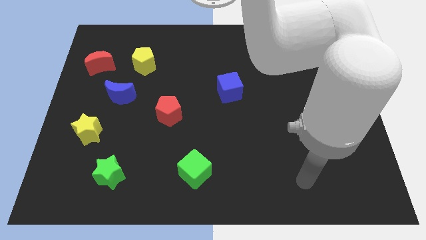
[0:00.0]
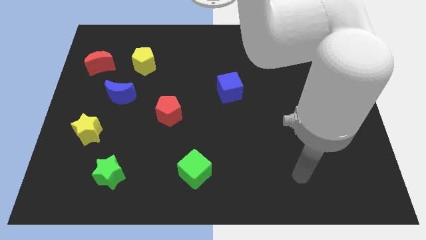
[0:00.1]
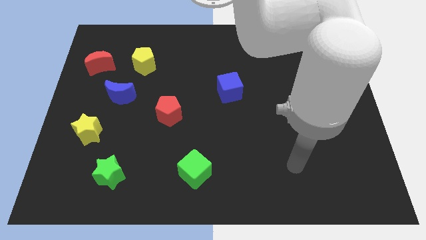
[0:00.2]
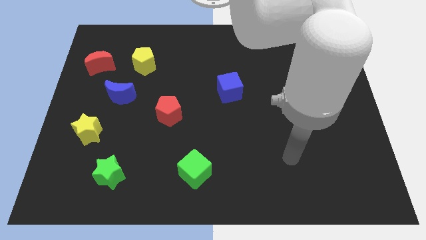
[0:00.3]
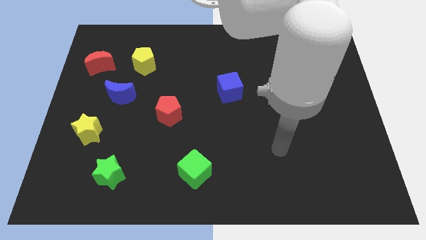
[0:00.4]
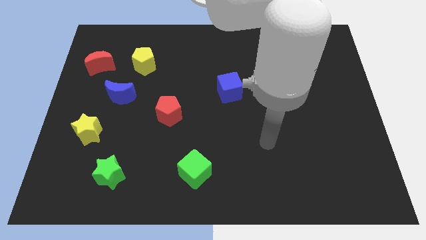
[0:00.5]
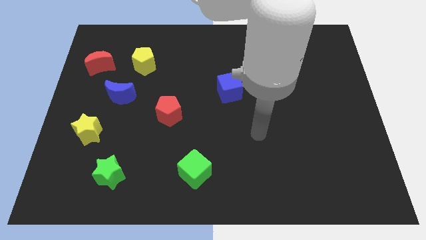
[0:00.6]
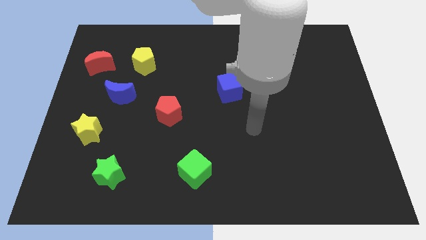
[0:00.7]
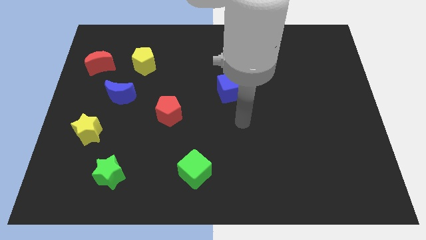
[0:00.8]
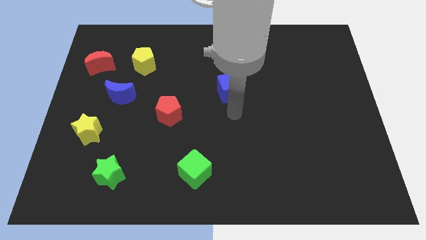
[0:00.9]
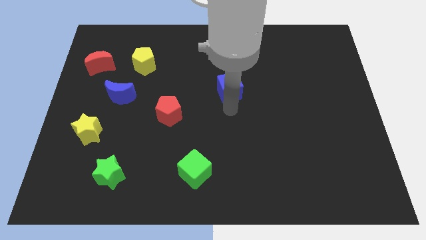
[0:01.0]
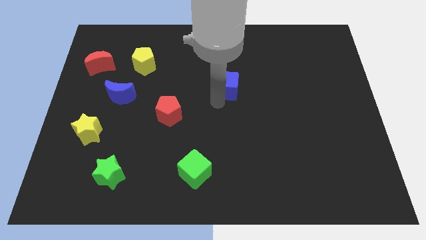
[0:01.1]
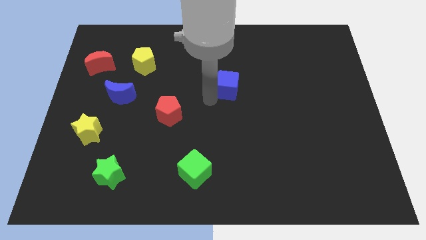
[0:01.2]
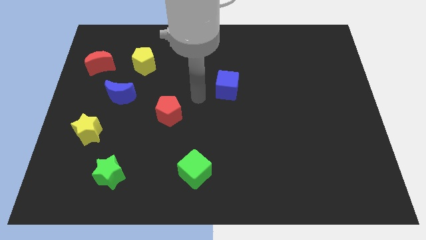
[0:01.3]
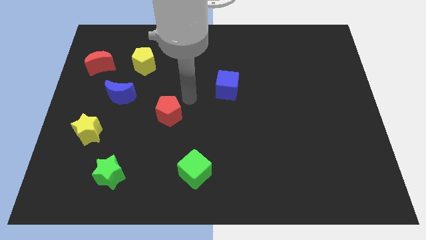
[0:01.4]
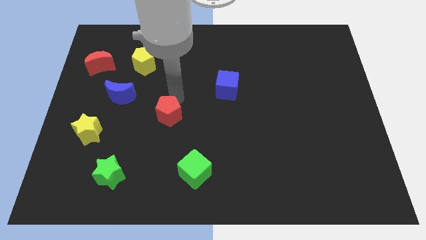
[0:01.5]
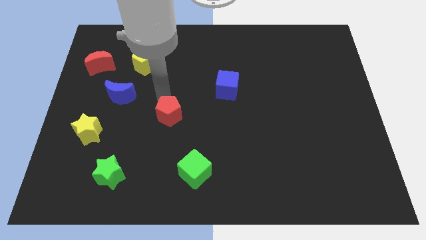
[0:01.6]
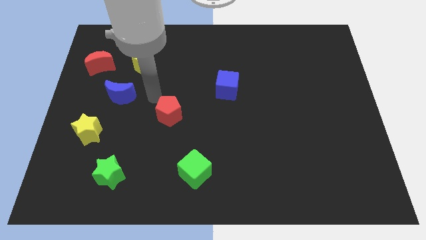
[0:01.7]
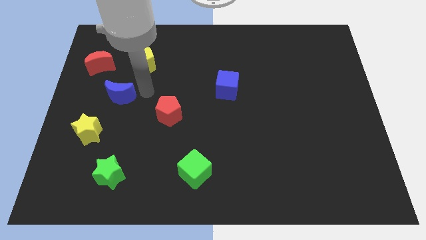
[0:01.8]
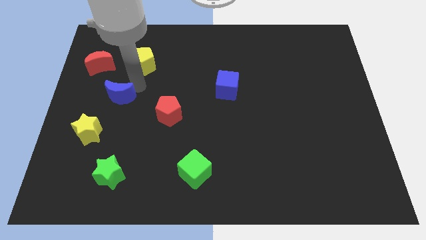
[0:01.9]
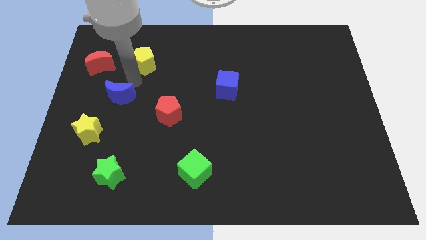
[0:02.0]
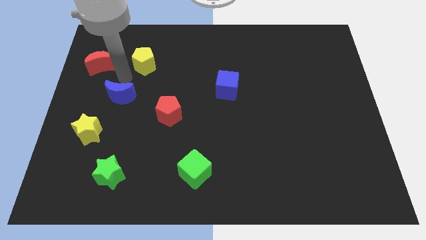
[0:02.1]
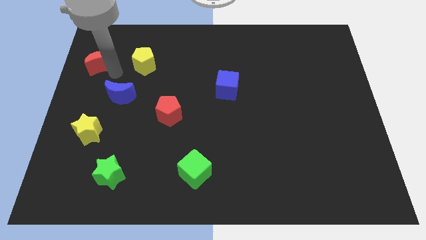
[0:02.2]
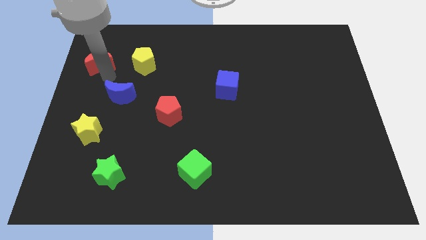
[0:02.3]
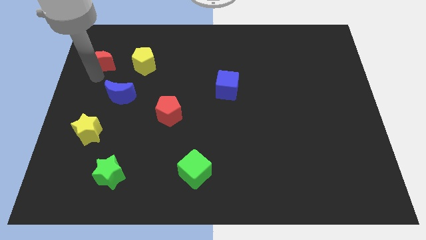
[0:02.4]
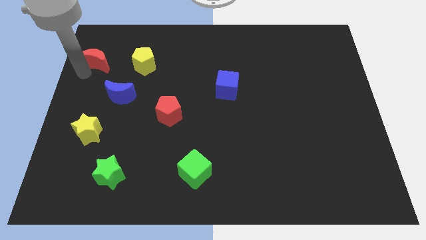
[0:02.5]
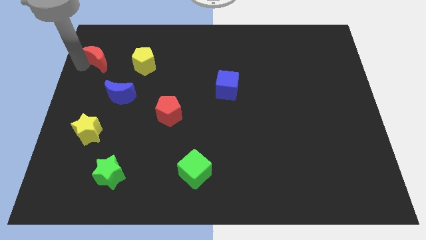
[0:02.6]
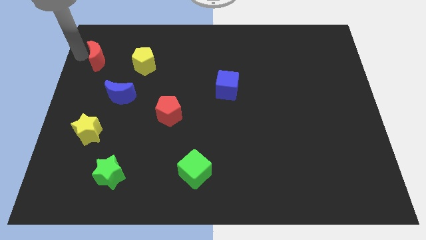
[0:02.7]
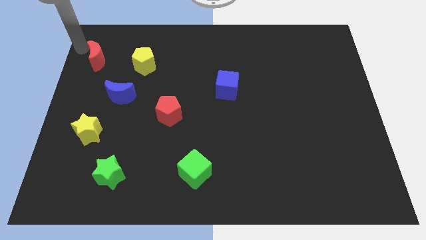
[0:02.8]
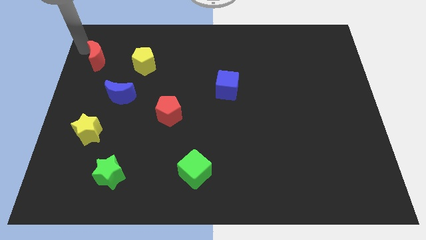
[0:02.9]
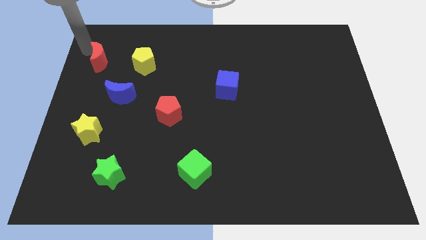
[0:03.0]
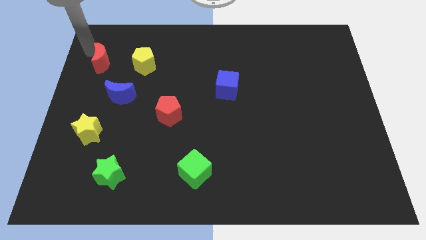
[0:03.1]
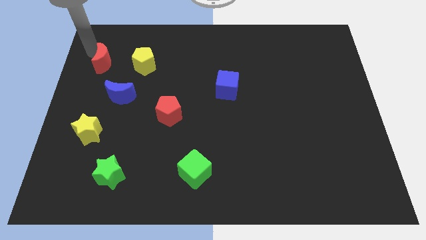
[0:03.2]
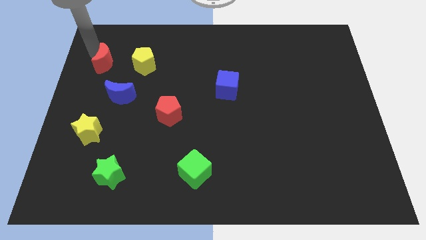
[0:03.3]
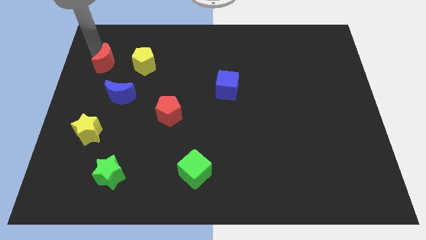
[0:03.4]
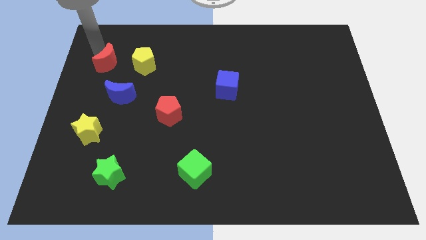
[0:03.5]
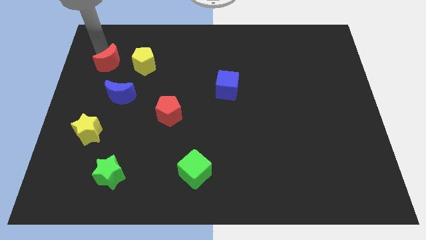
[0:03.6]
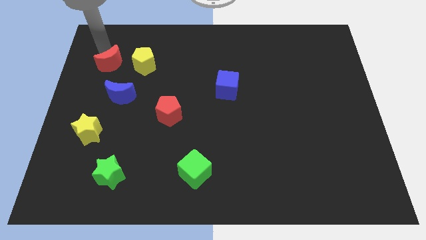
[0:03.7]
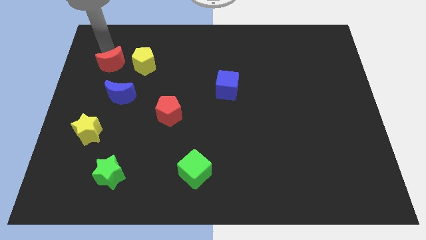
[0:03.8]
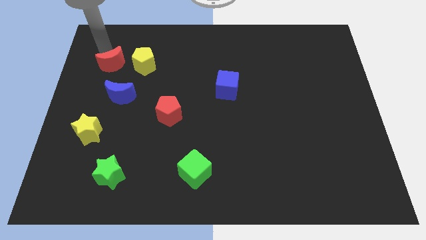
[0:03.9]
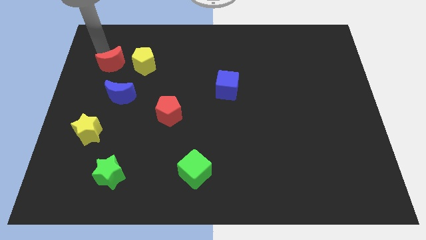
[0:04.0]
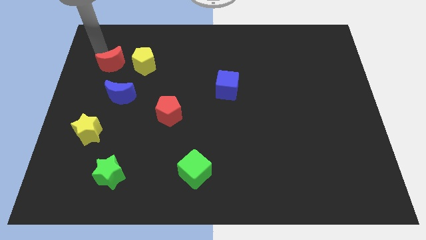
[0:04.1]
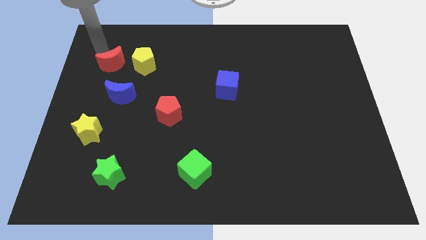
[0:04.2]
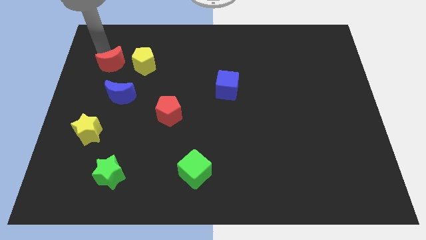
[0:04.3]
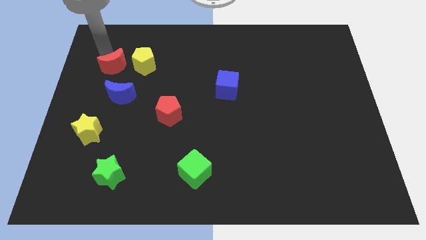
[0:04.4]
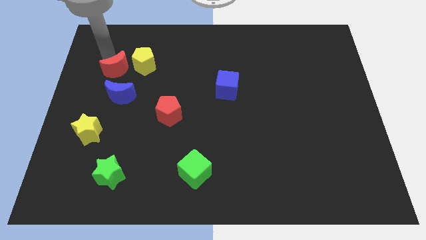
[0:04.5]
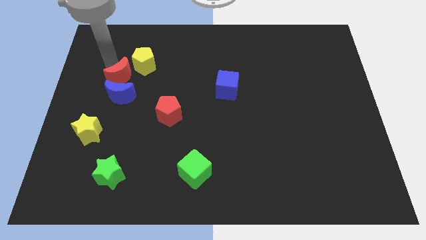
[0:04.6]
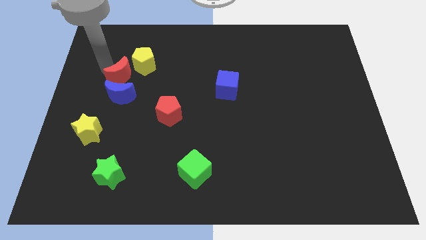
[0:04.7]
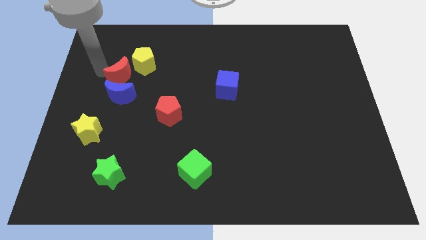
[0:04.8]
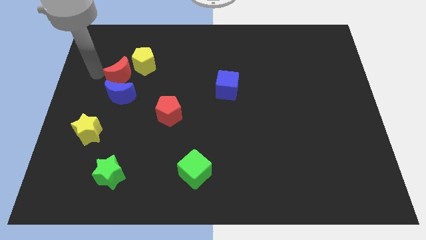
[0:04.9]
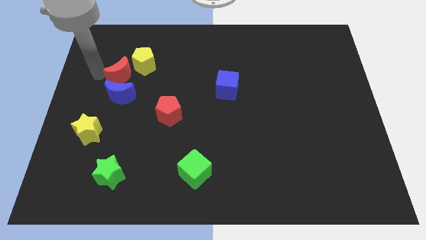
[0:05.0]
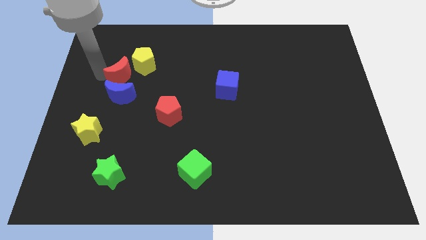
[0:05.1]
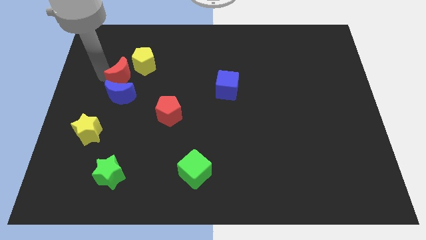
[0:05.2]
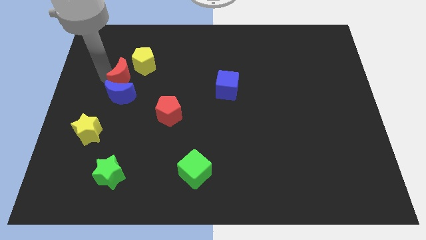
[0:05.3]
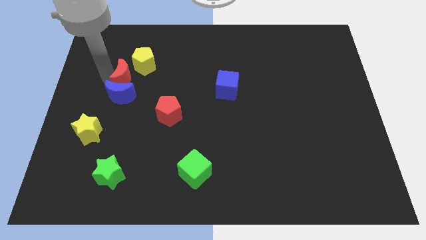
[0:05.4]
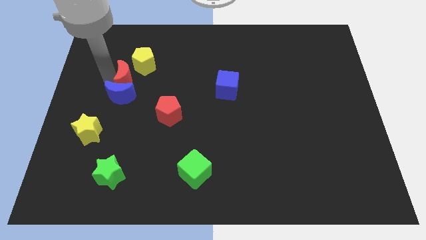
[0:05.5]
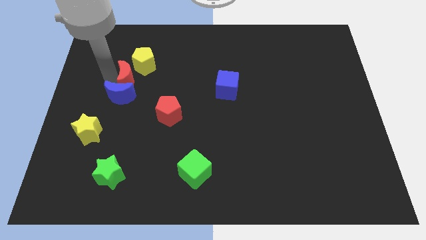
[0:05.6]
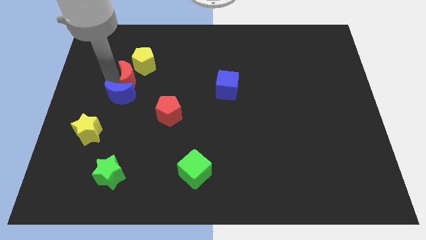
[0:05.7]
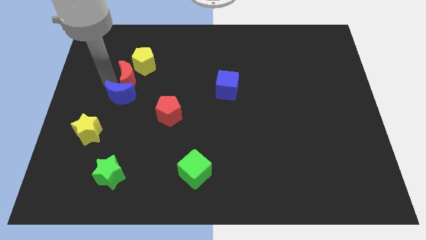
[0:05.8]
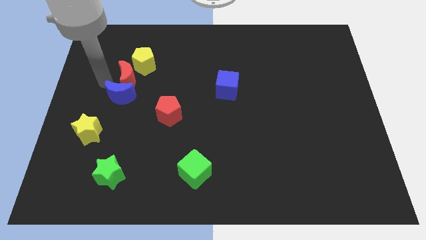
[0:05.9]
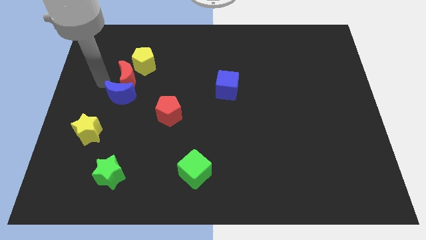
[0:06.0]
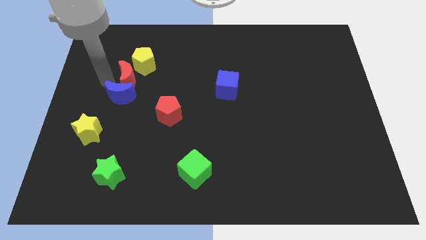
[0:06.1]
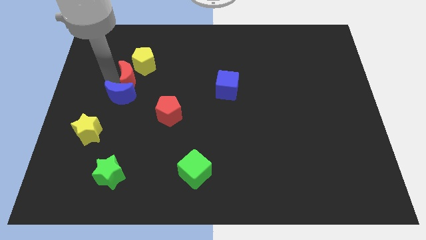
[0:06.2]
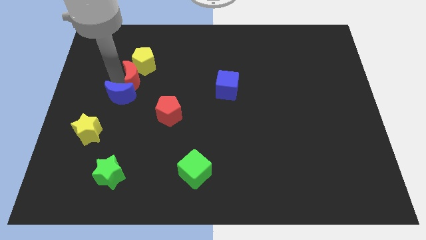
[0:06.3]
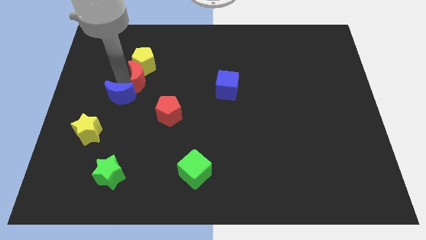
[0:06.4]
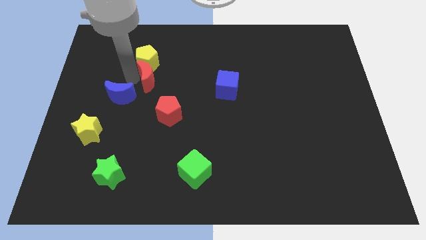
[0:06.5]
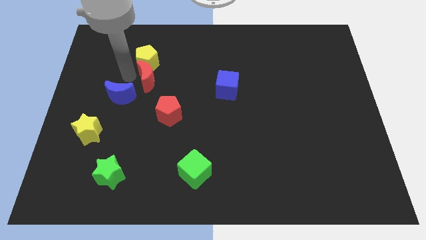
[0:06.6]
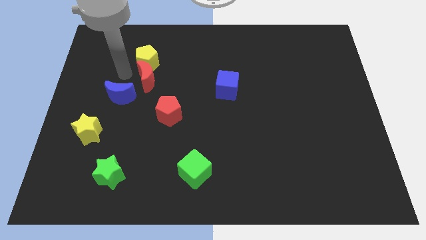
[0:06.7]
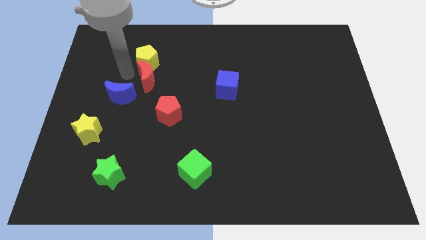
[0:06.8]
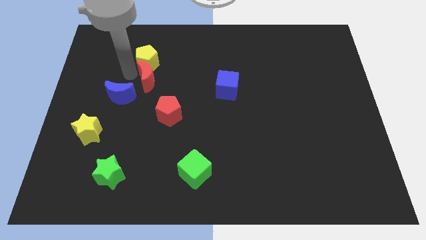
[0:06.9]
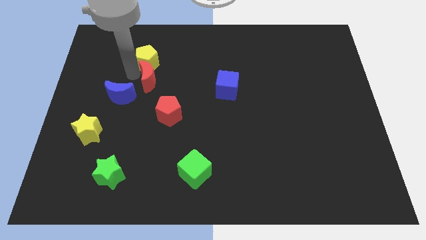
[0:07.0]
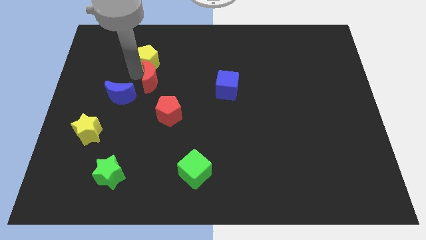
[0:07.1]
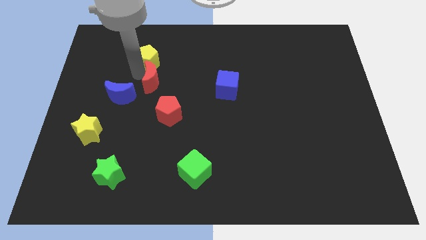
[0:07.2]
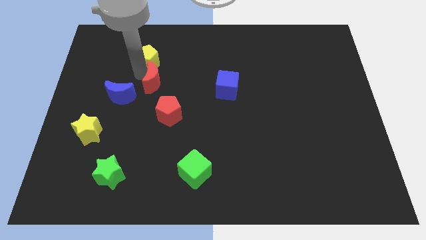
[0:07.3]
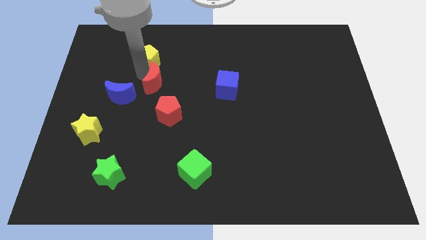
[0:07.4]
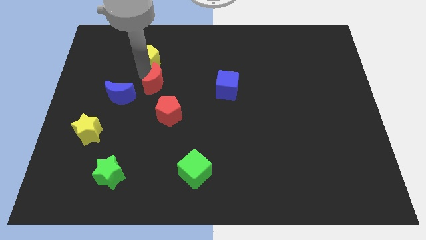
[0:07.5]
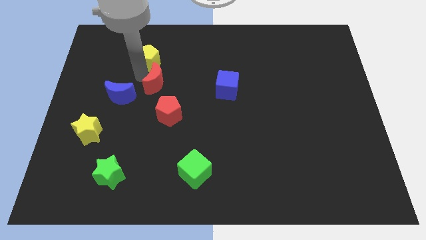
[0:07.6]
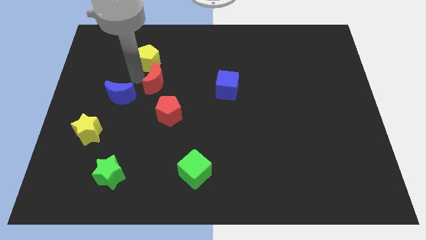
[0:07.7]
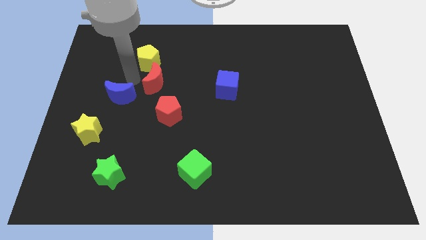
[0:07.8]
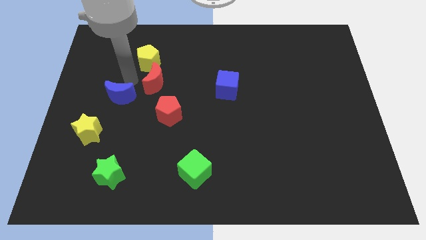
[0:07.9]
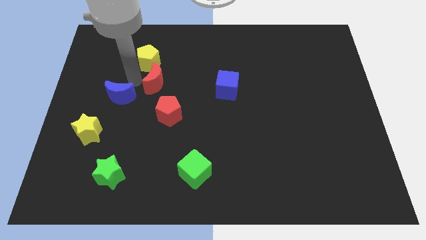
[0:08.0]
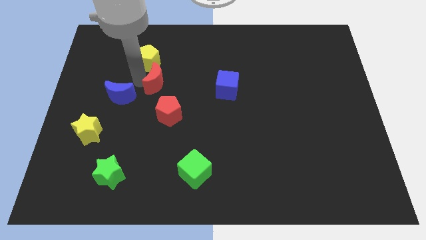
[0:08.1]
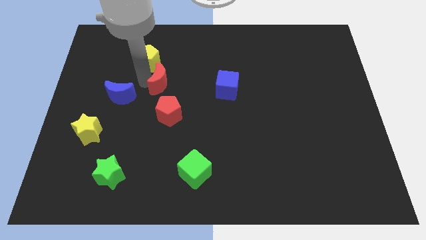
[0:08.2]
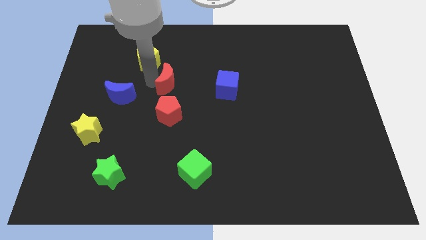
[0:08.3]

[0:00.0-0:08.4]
move the red moon to the left of the blue cube
